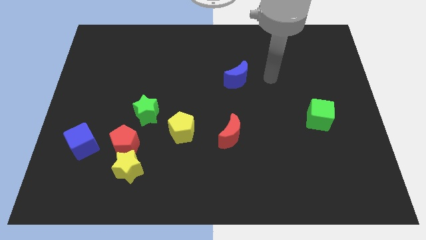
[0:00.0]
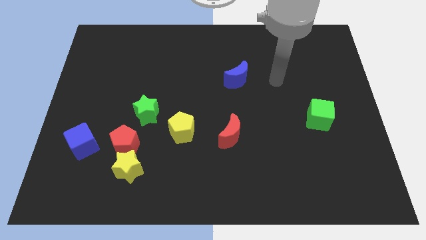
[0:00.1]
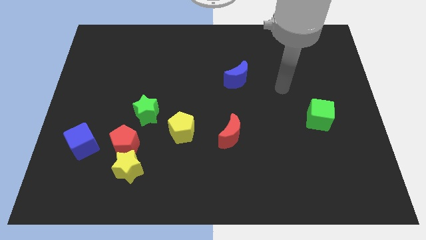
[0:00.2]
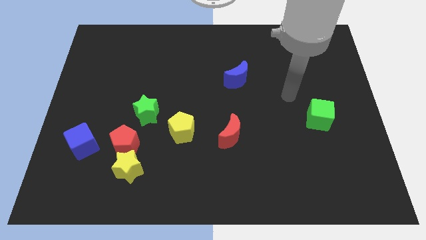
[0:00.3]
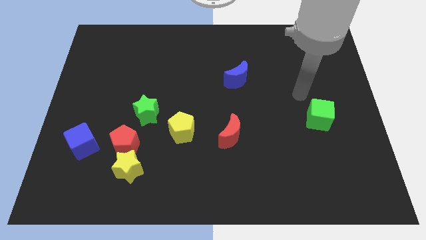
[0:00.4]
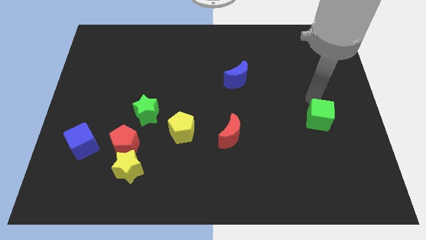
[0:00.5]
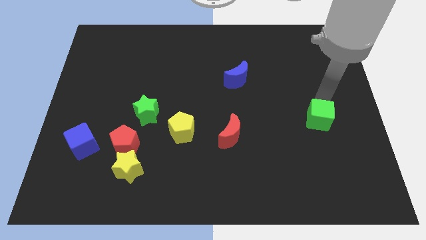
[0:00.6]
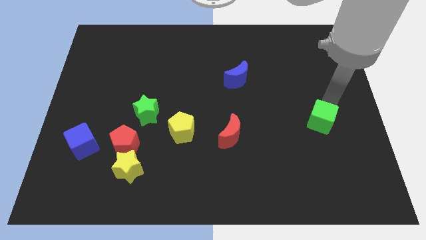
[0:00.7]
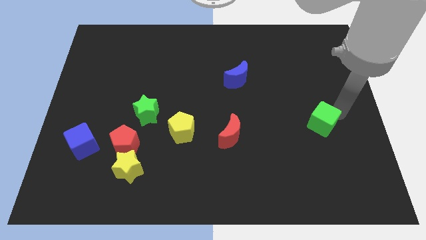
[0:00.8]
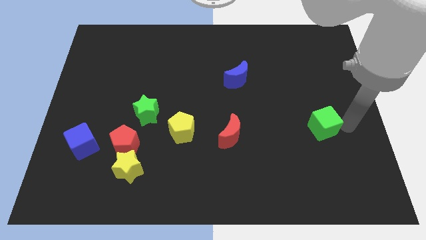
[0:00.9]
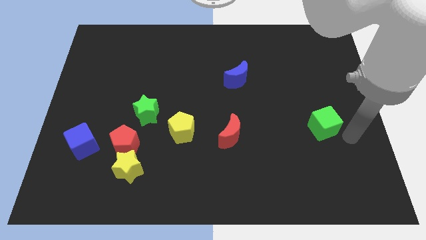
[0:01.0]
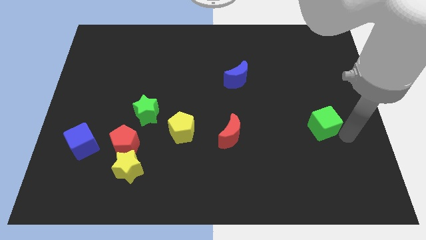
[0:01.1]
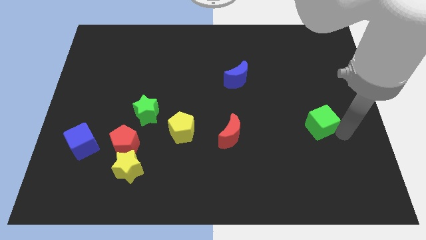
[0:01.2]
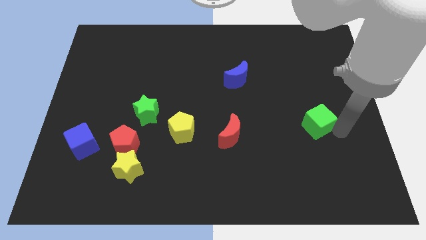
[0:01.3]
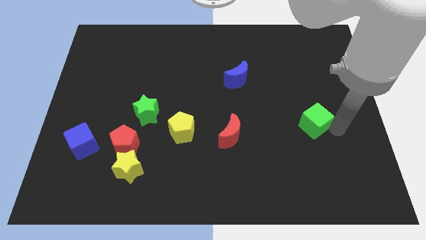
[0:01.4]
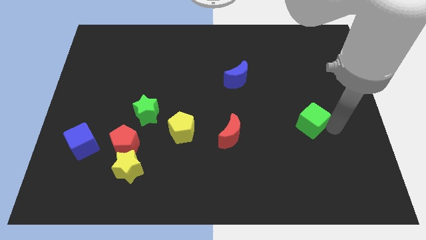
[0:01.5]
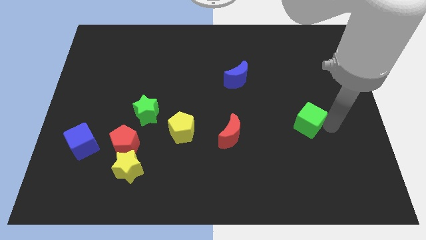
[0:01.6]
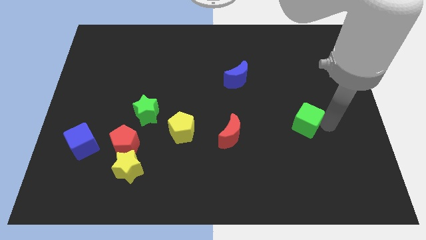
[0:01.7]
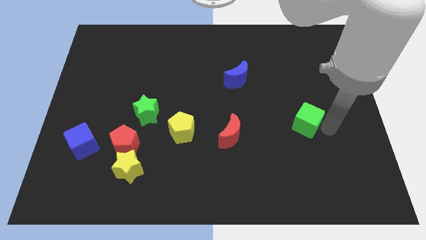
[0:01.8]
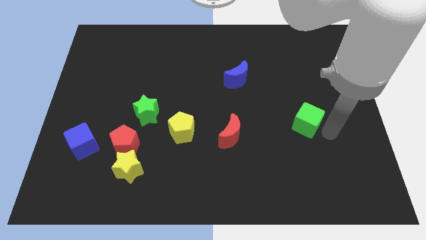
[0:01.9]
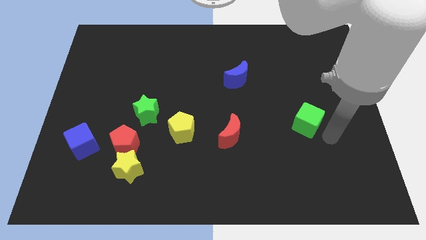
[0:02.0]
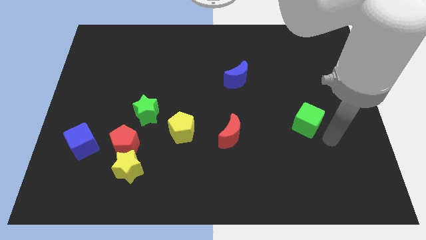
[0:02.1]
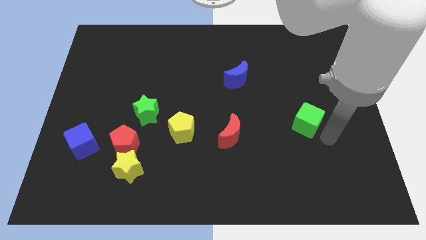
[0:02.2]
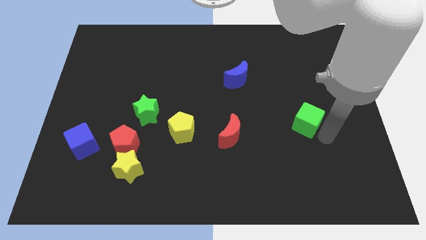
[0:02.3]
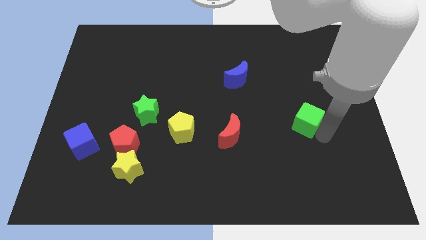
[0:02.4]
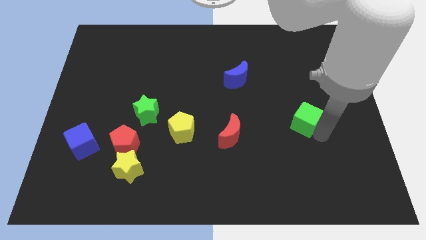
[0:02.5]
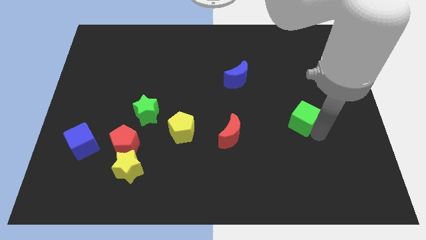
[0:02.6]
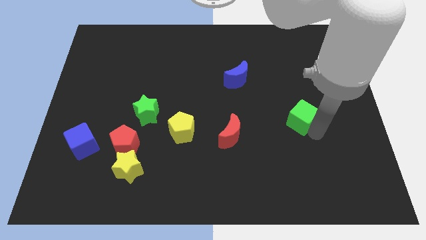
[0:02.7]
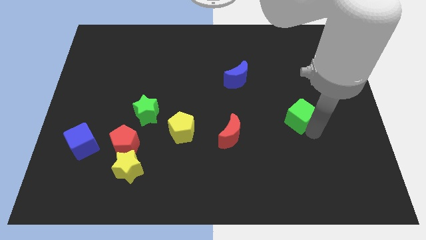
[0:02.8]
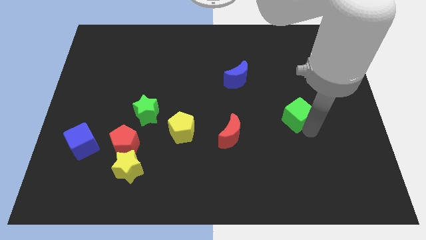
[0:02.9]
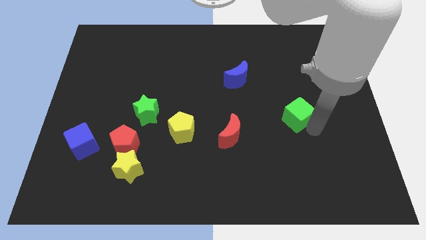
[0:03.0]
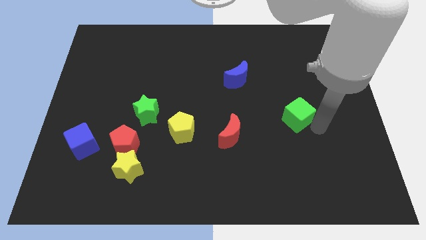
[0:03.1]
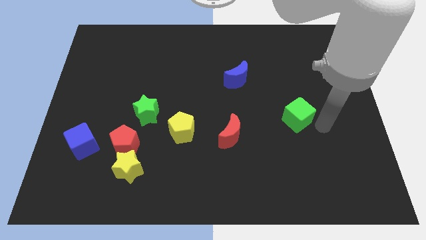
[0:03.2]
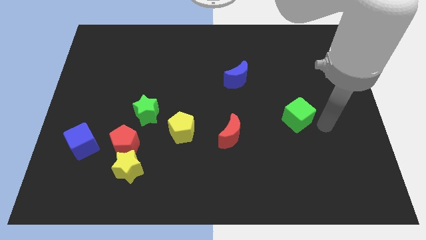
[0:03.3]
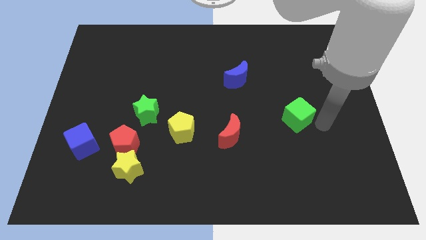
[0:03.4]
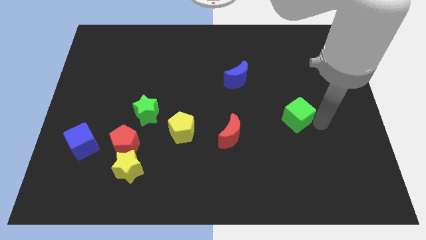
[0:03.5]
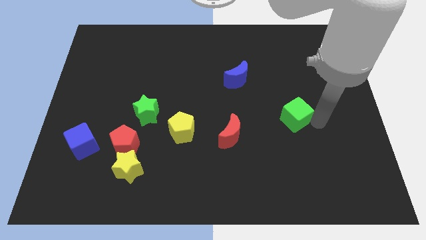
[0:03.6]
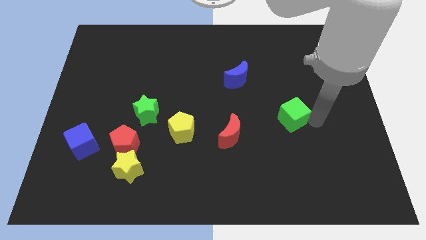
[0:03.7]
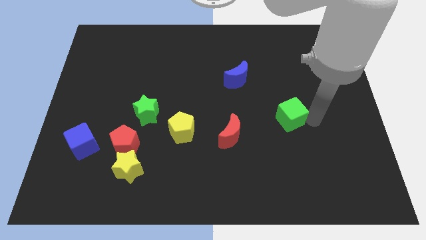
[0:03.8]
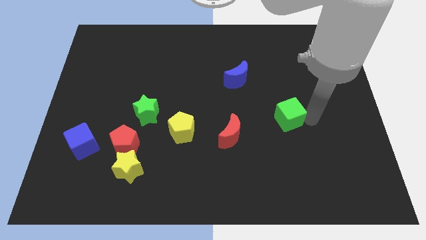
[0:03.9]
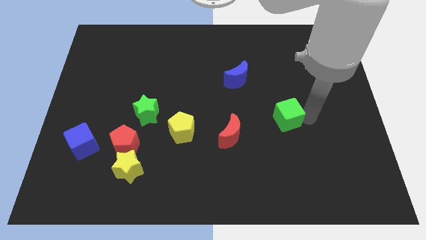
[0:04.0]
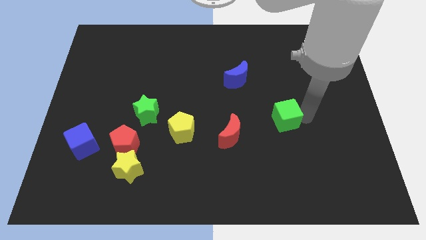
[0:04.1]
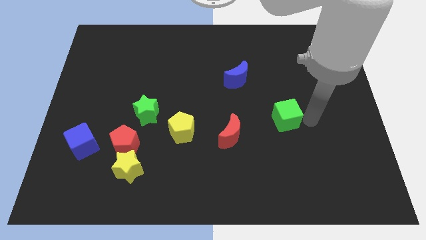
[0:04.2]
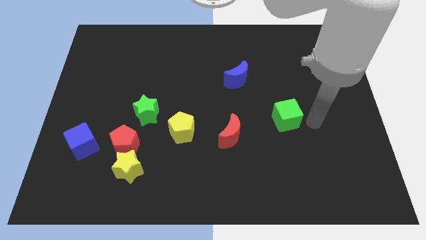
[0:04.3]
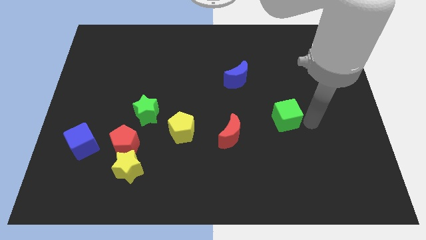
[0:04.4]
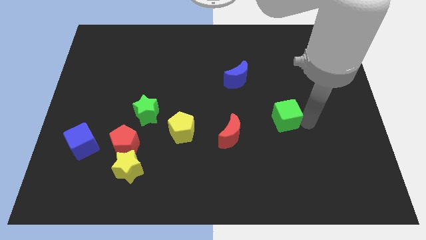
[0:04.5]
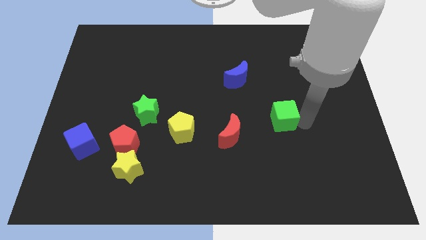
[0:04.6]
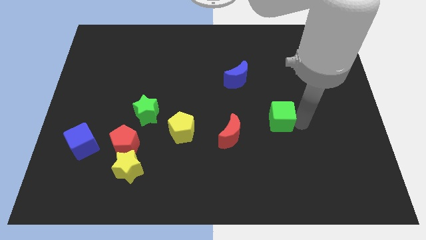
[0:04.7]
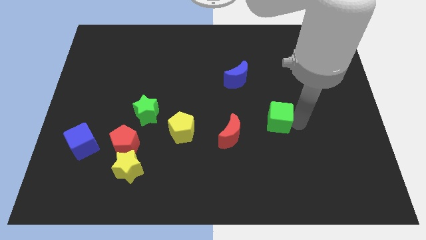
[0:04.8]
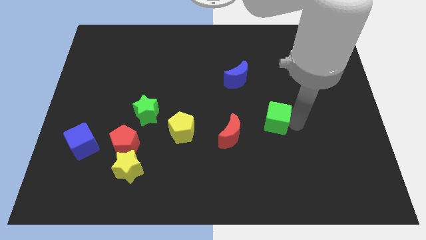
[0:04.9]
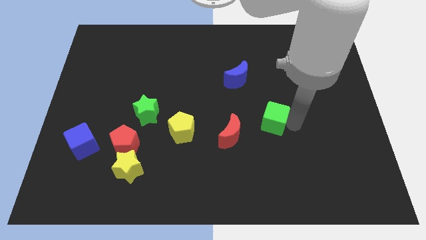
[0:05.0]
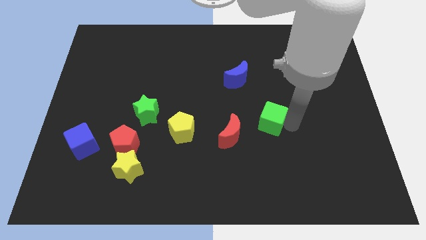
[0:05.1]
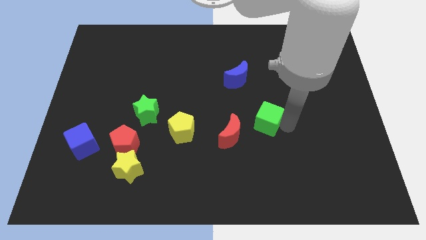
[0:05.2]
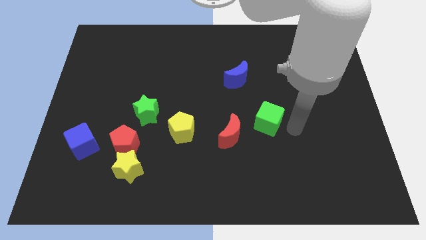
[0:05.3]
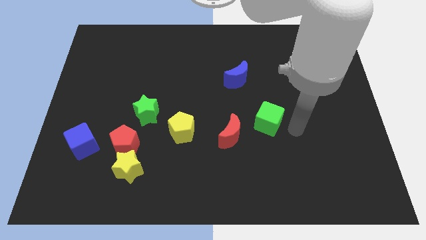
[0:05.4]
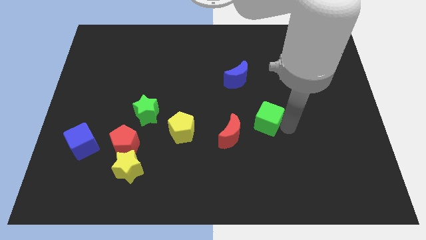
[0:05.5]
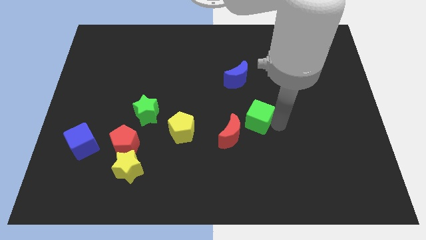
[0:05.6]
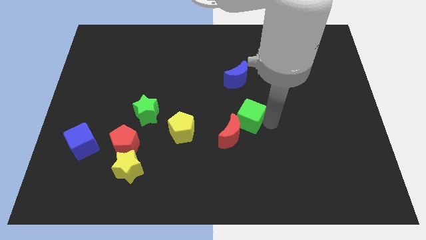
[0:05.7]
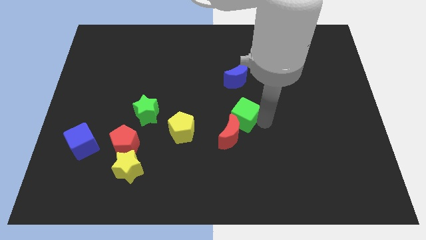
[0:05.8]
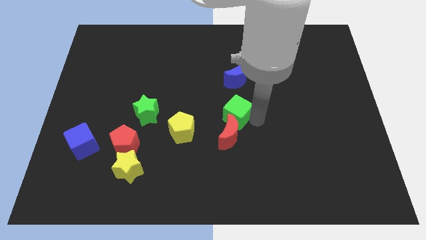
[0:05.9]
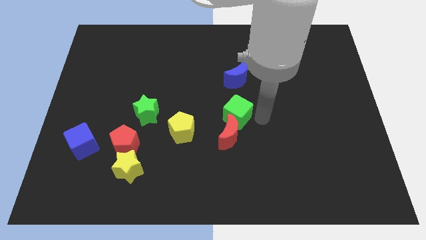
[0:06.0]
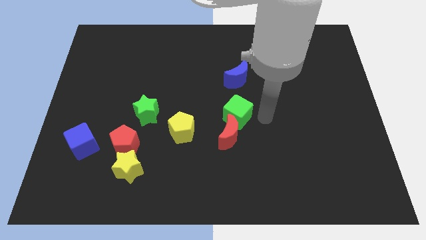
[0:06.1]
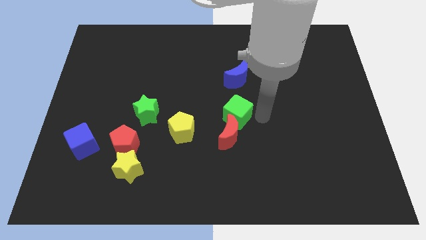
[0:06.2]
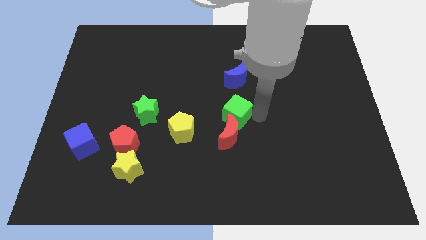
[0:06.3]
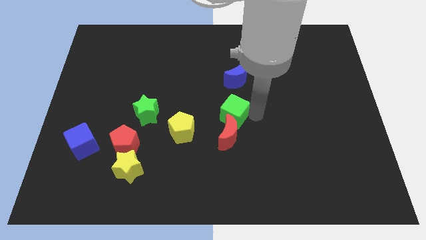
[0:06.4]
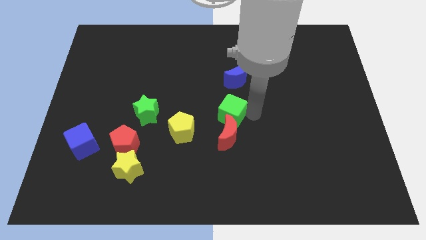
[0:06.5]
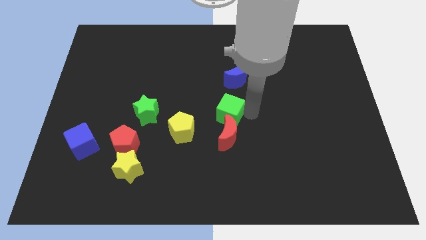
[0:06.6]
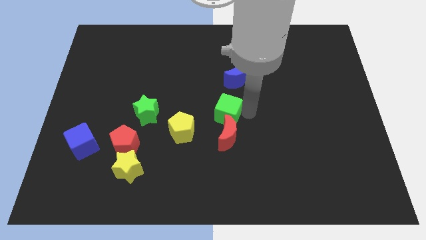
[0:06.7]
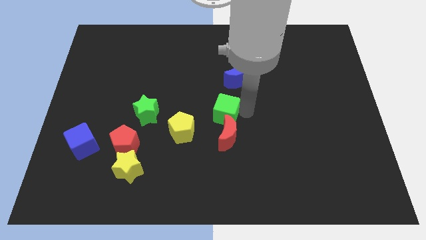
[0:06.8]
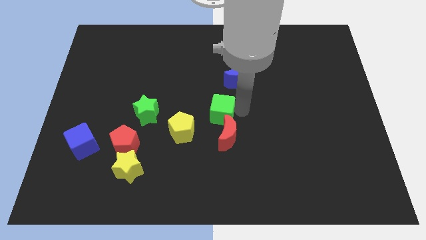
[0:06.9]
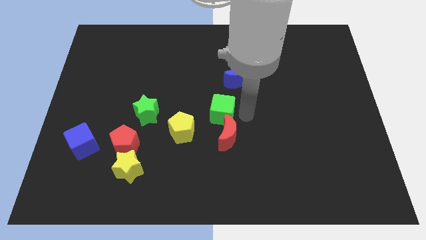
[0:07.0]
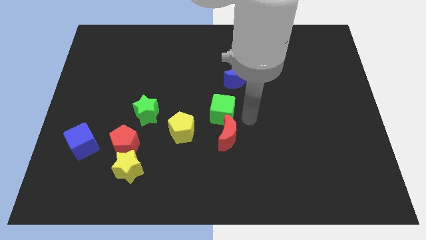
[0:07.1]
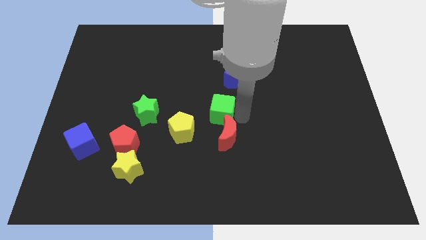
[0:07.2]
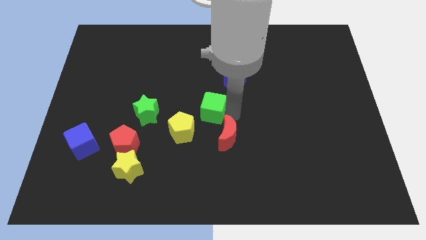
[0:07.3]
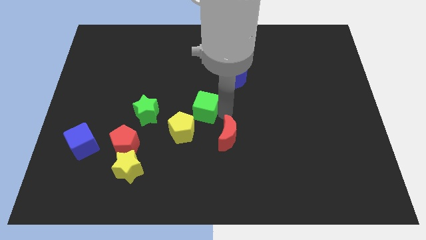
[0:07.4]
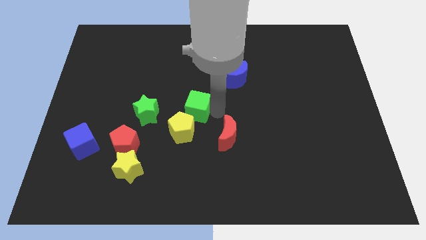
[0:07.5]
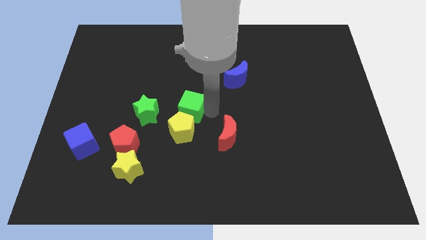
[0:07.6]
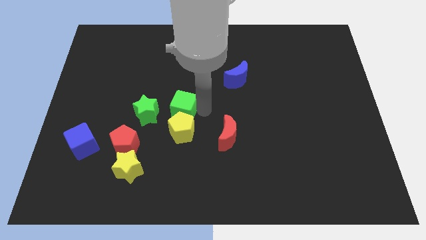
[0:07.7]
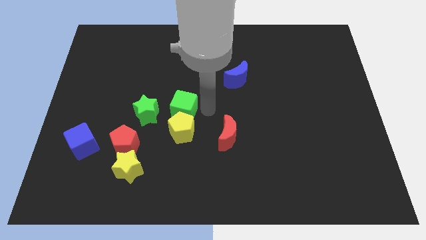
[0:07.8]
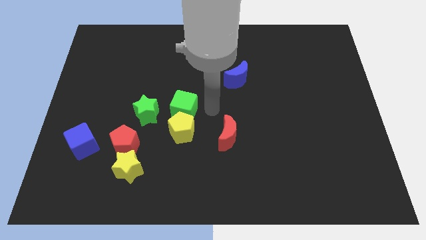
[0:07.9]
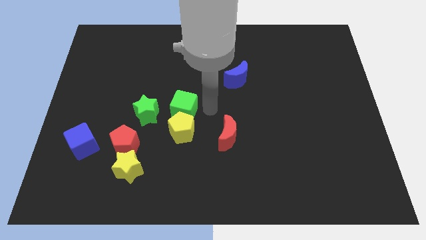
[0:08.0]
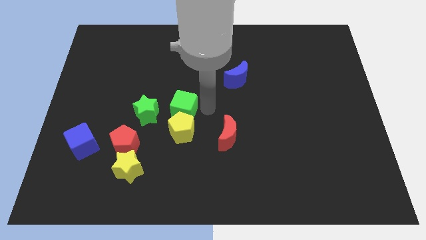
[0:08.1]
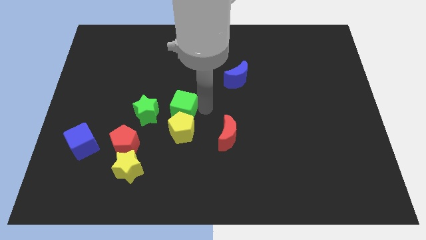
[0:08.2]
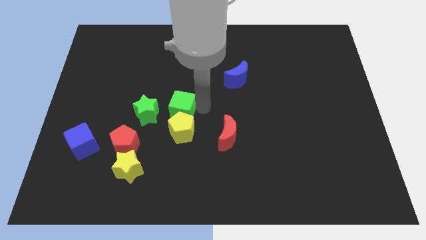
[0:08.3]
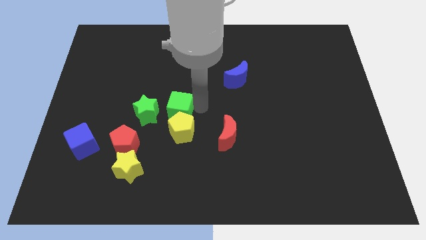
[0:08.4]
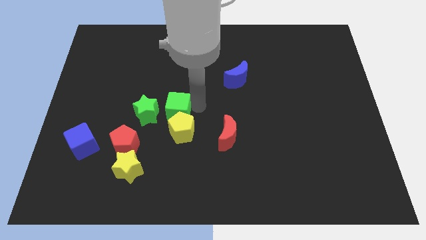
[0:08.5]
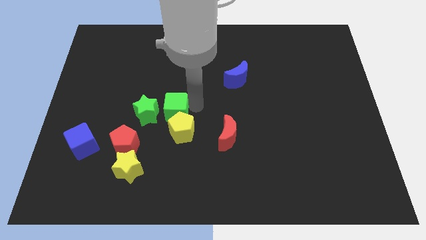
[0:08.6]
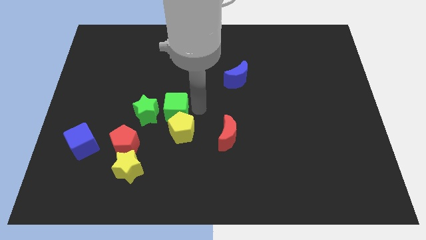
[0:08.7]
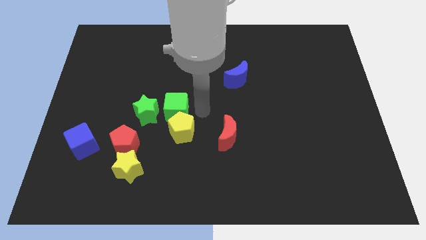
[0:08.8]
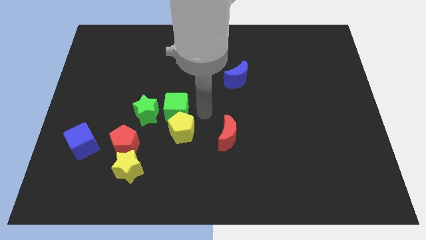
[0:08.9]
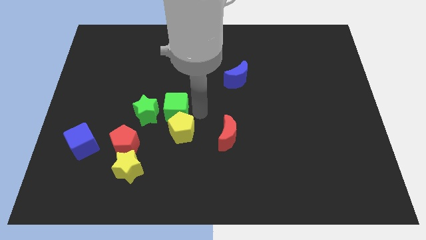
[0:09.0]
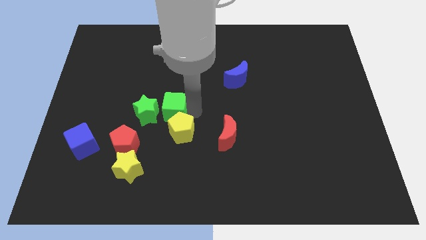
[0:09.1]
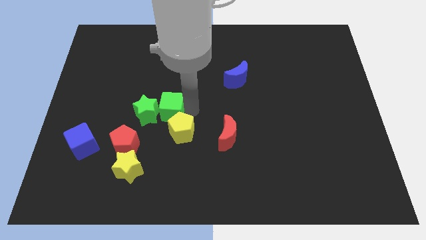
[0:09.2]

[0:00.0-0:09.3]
put the green cube close to the green star
